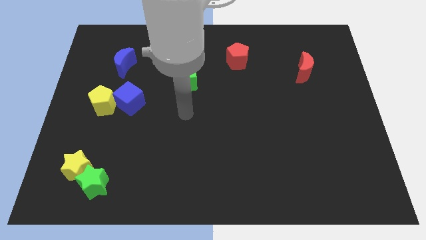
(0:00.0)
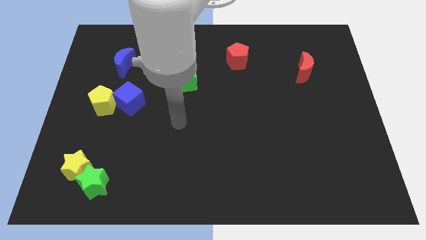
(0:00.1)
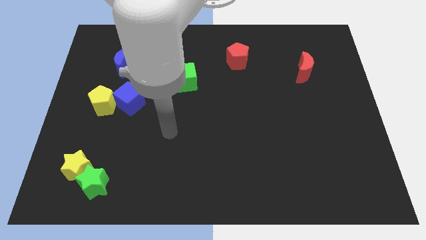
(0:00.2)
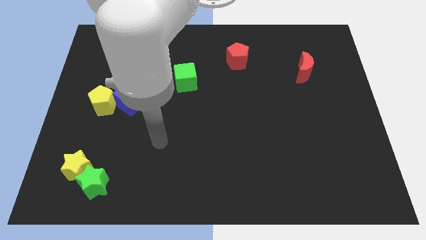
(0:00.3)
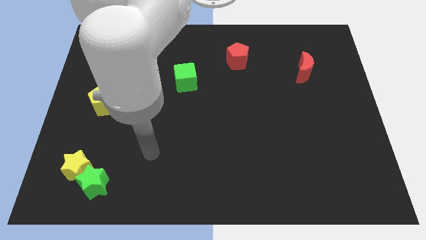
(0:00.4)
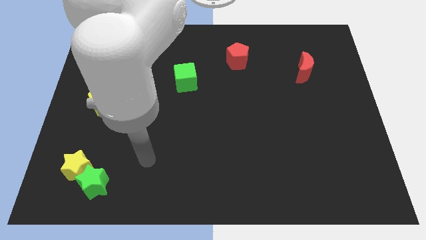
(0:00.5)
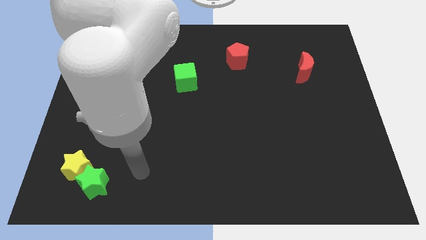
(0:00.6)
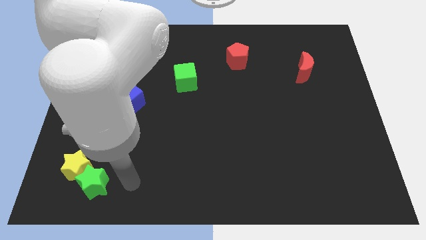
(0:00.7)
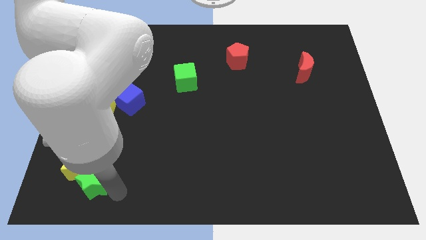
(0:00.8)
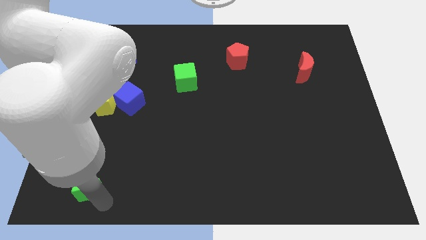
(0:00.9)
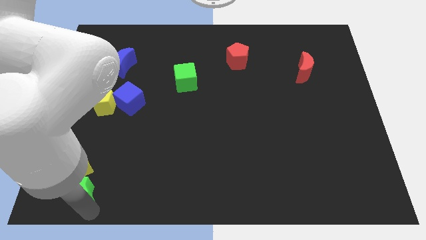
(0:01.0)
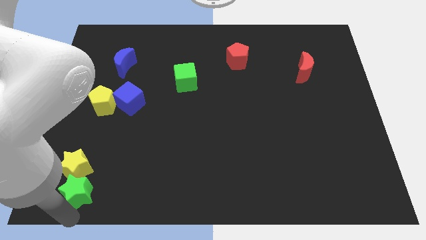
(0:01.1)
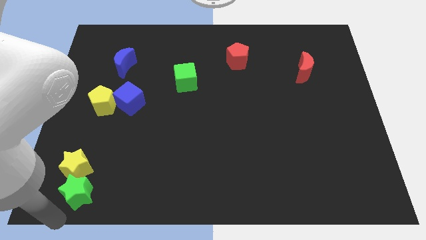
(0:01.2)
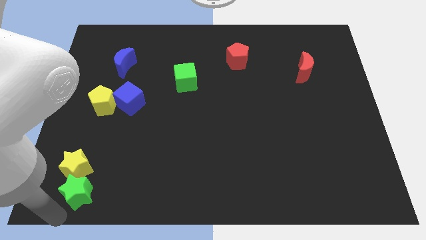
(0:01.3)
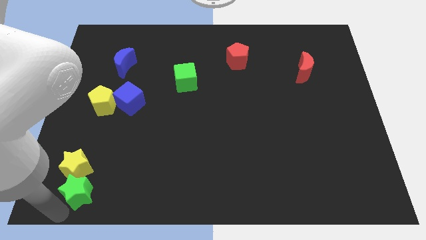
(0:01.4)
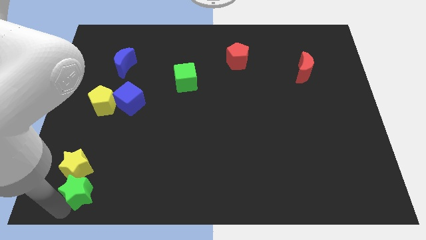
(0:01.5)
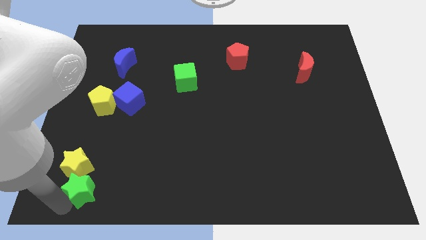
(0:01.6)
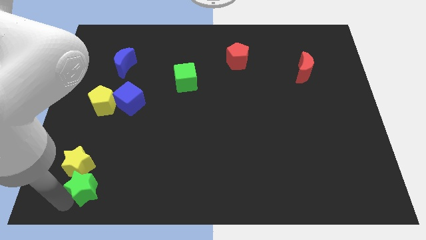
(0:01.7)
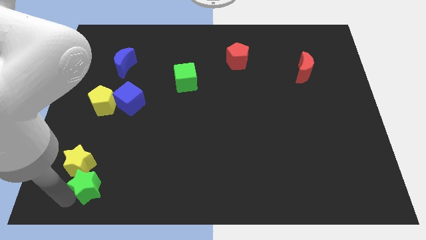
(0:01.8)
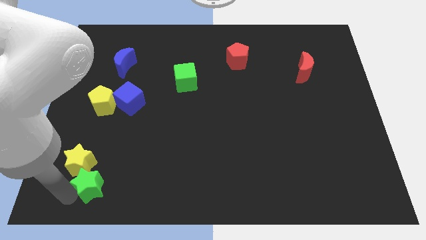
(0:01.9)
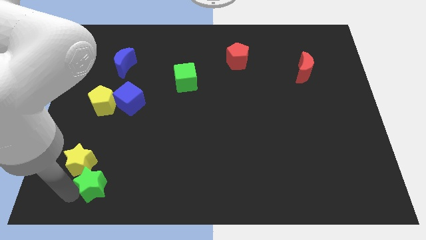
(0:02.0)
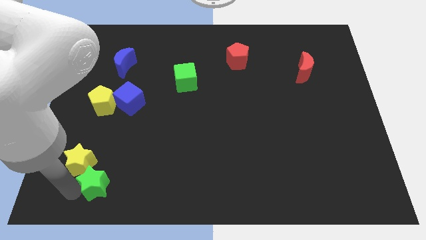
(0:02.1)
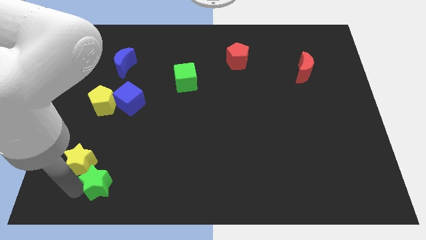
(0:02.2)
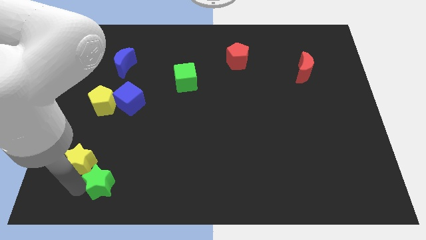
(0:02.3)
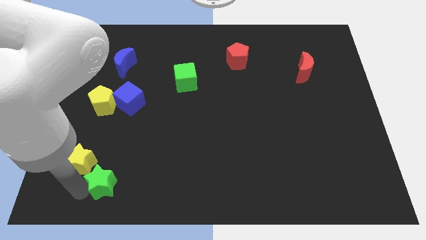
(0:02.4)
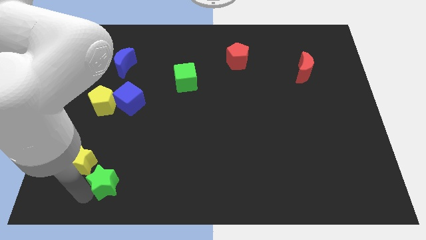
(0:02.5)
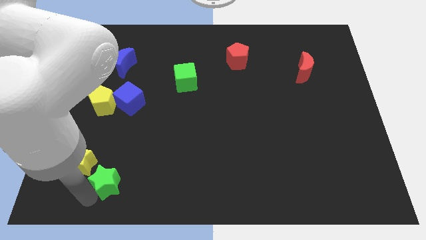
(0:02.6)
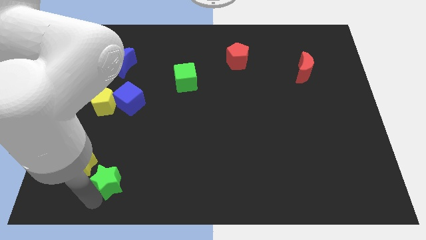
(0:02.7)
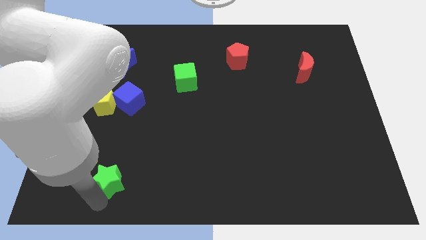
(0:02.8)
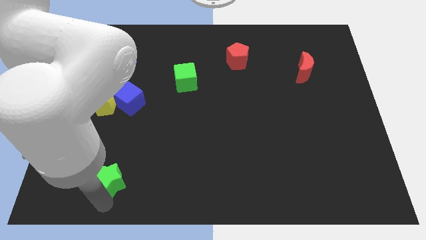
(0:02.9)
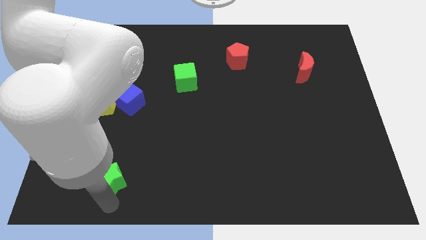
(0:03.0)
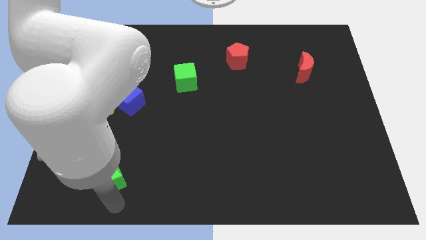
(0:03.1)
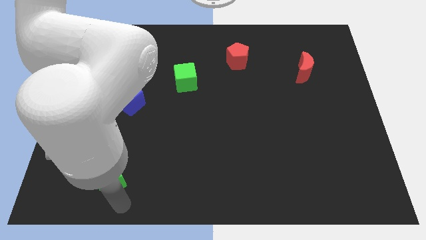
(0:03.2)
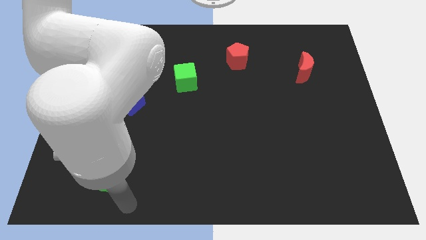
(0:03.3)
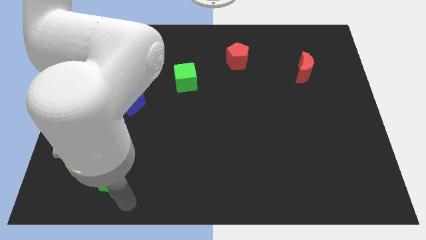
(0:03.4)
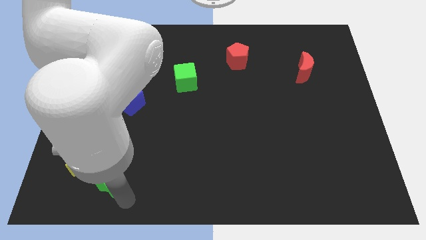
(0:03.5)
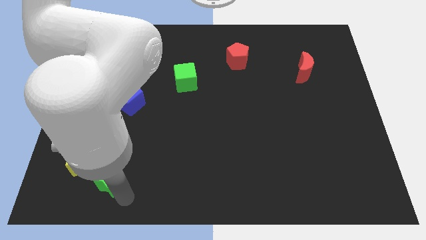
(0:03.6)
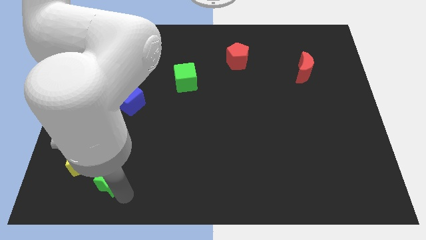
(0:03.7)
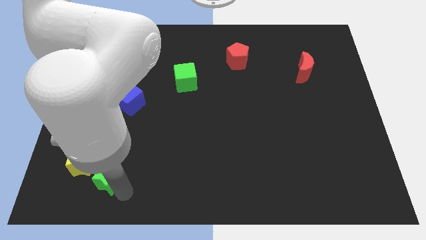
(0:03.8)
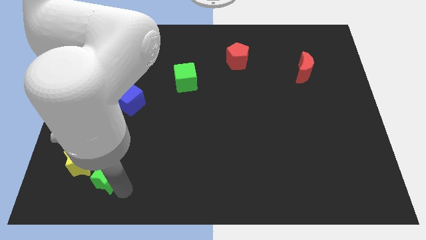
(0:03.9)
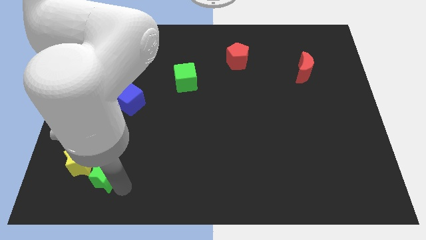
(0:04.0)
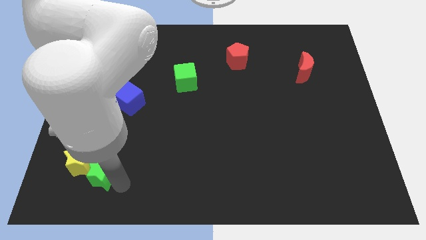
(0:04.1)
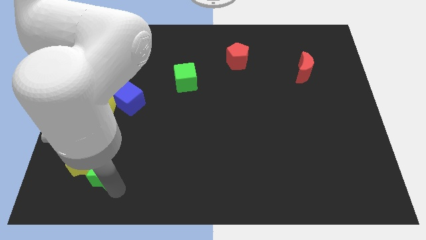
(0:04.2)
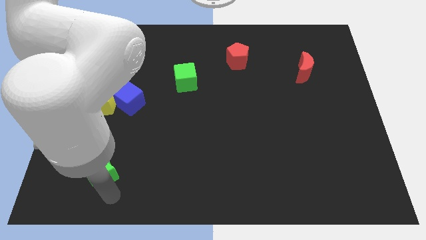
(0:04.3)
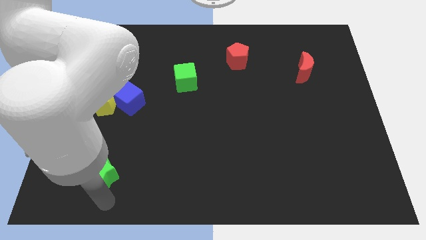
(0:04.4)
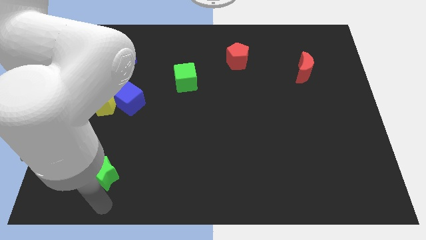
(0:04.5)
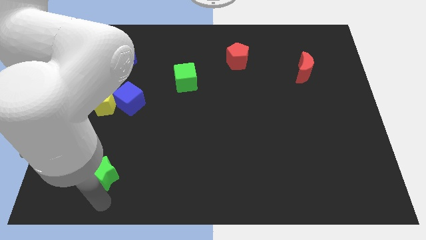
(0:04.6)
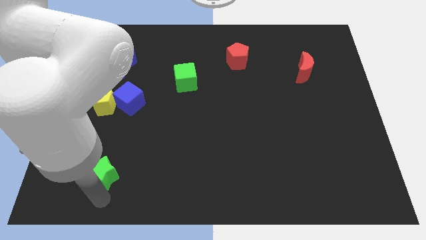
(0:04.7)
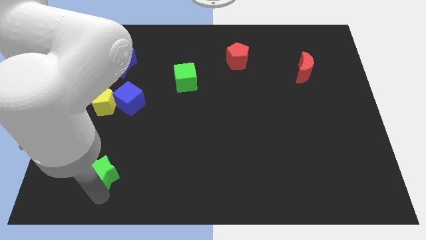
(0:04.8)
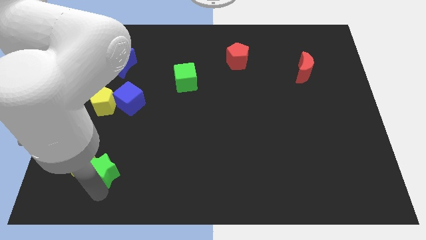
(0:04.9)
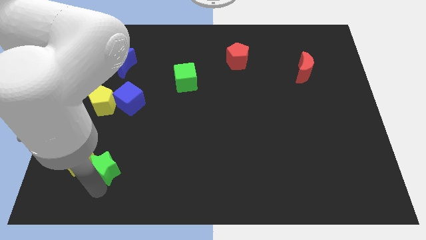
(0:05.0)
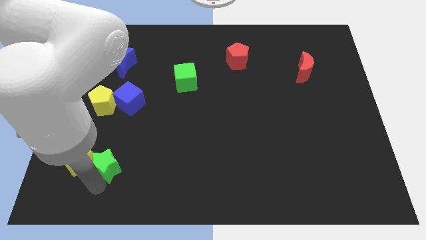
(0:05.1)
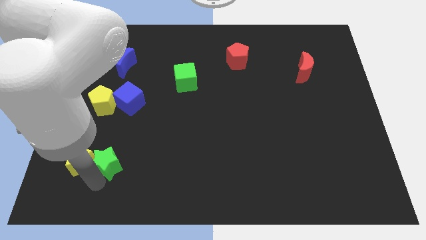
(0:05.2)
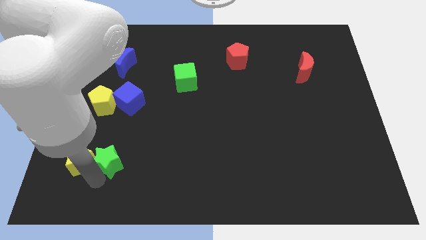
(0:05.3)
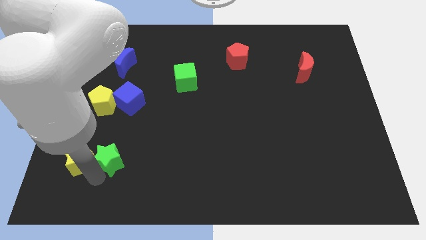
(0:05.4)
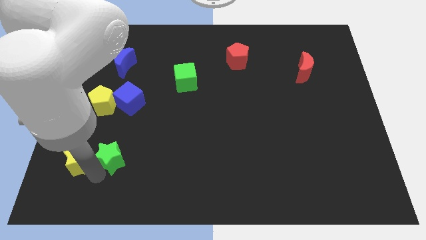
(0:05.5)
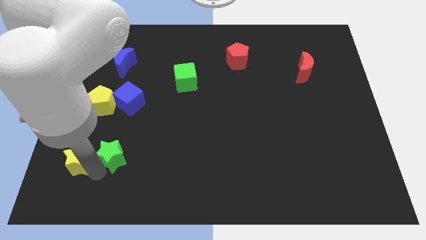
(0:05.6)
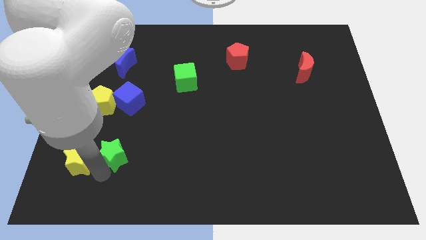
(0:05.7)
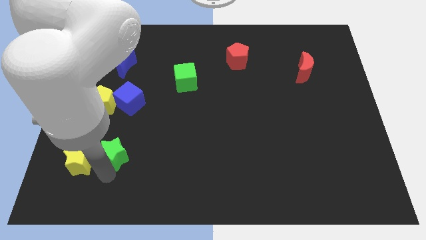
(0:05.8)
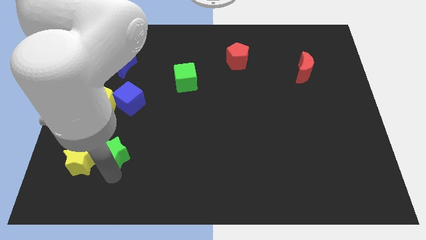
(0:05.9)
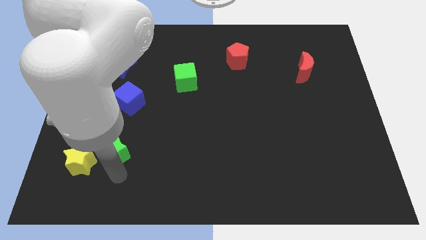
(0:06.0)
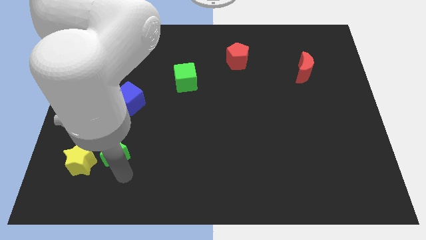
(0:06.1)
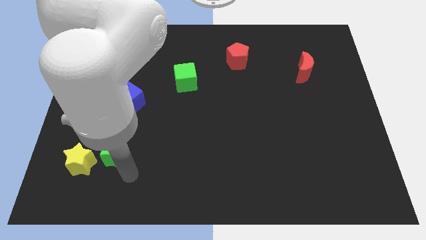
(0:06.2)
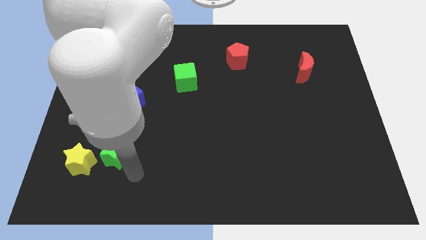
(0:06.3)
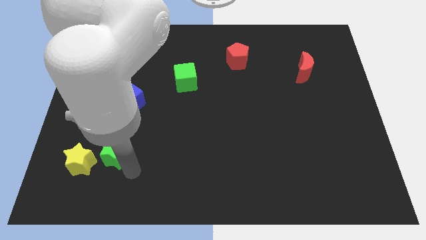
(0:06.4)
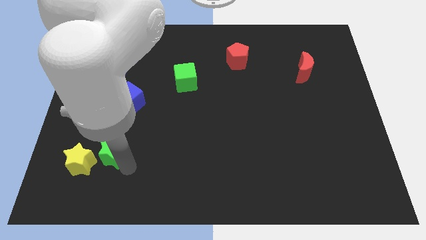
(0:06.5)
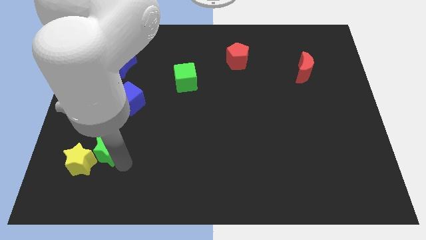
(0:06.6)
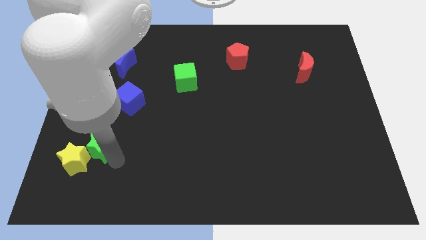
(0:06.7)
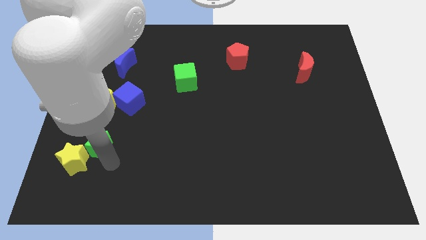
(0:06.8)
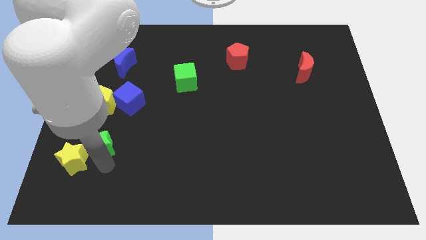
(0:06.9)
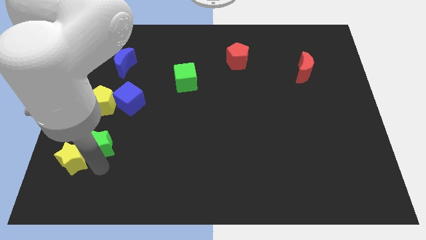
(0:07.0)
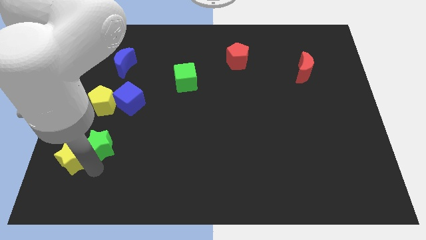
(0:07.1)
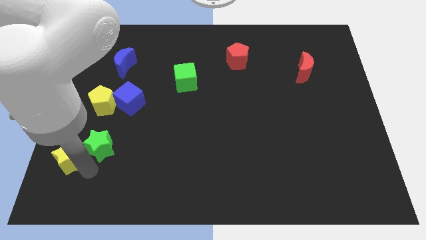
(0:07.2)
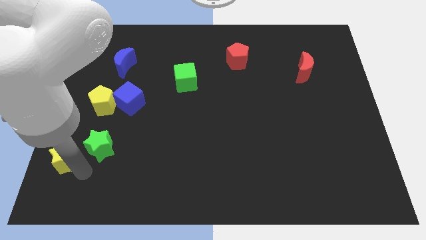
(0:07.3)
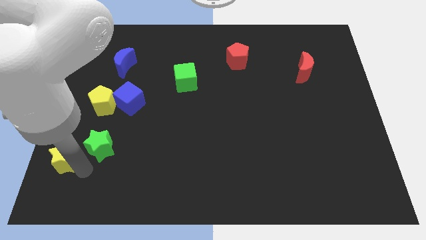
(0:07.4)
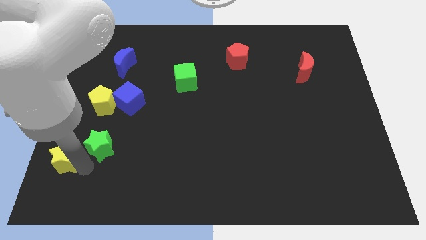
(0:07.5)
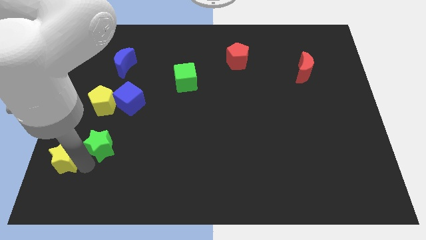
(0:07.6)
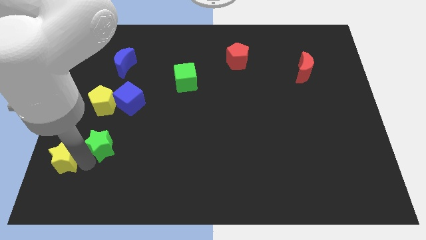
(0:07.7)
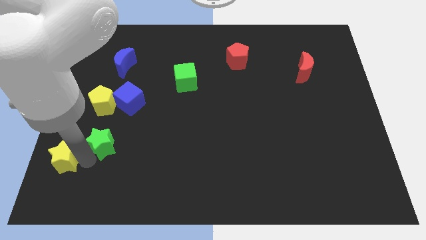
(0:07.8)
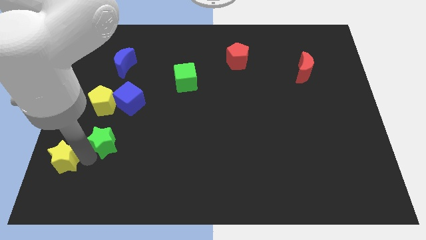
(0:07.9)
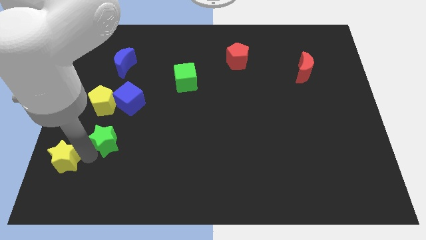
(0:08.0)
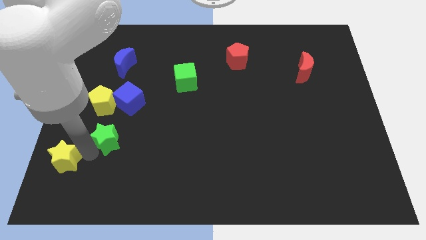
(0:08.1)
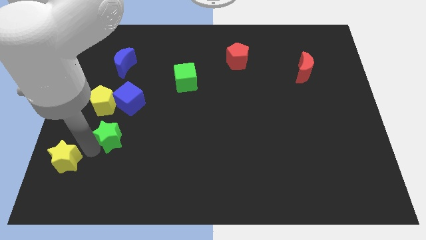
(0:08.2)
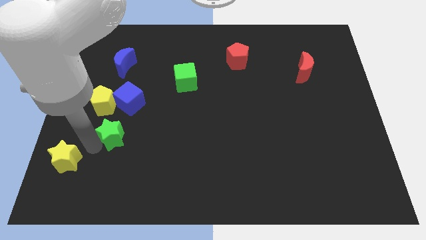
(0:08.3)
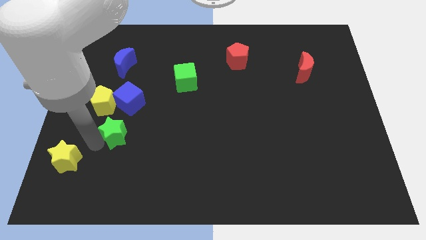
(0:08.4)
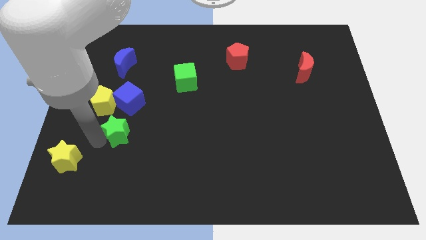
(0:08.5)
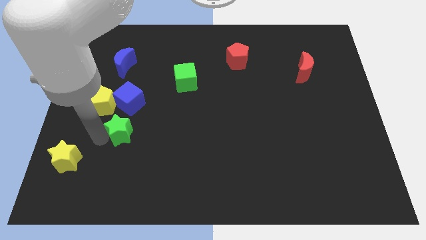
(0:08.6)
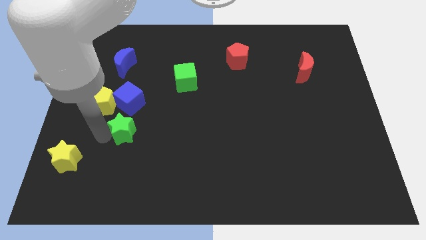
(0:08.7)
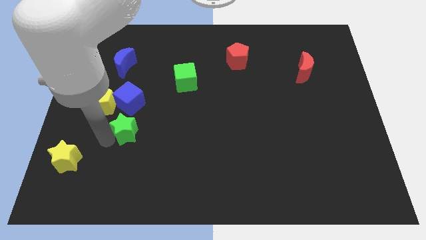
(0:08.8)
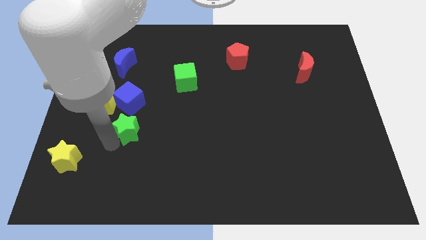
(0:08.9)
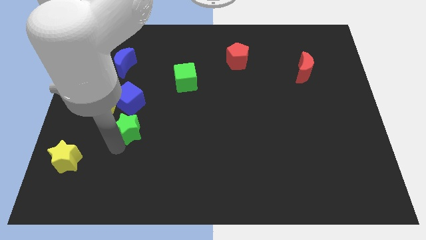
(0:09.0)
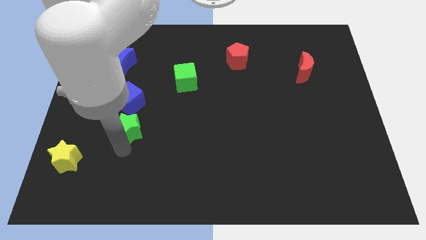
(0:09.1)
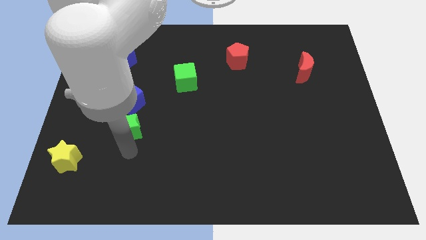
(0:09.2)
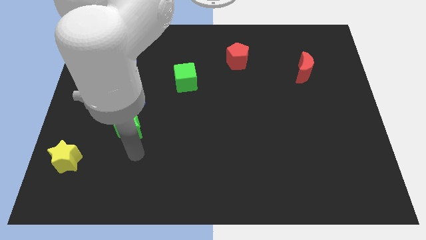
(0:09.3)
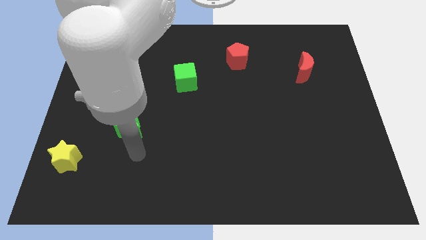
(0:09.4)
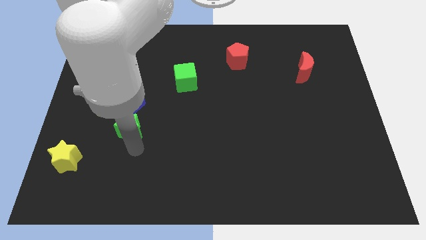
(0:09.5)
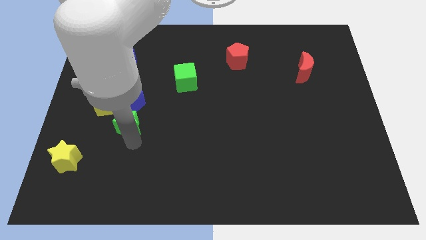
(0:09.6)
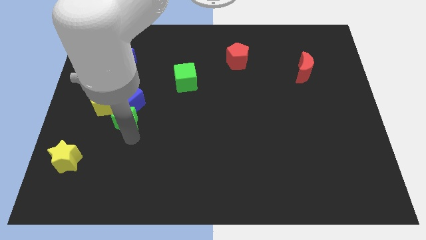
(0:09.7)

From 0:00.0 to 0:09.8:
push the green star next to the blue cube
